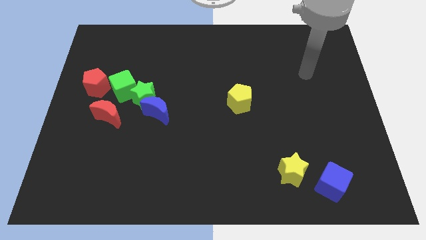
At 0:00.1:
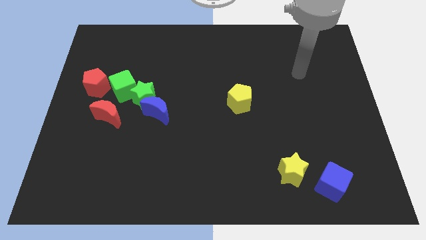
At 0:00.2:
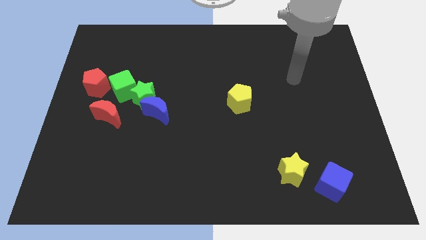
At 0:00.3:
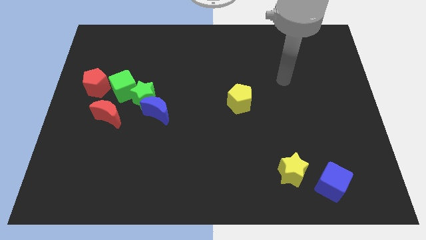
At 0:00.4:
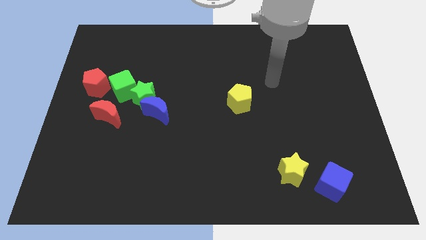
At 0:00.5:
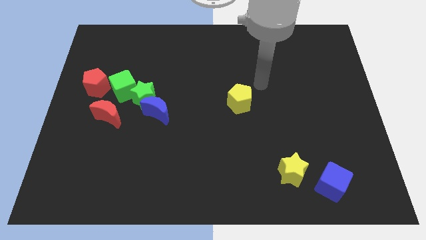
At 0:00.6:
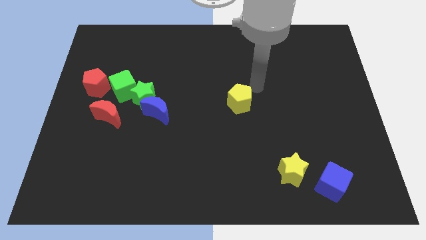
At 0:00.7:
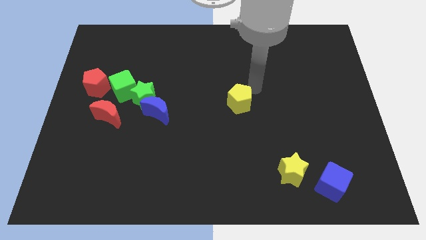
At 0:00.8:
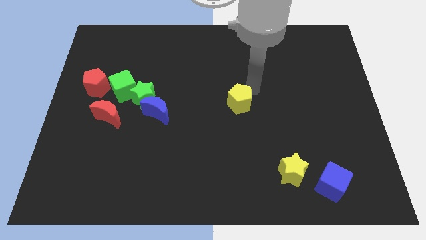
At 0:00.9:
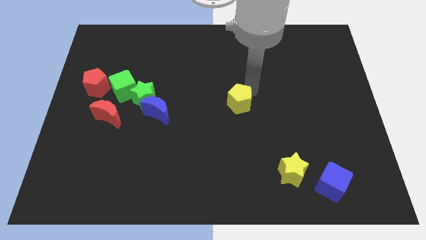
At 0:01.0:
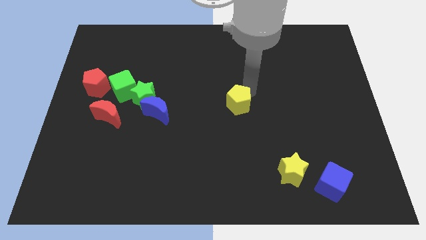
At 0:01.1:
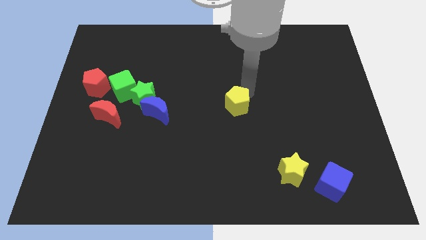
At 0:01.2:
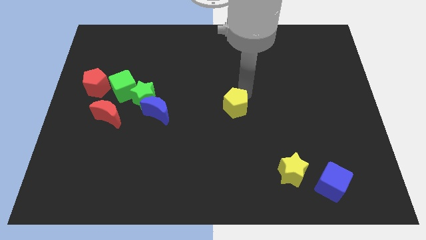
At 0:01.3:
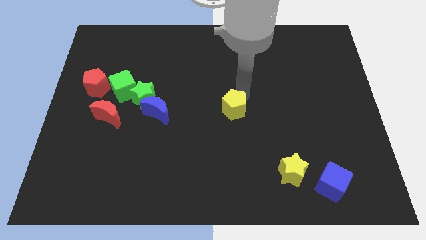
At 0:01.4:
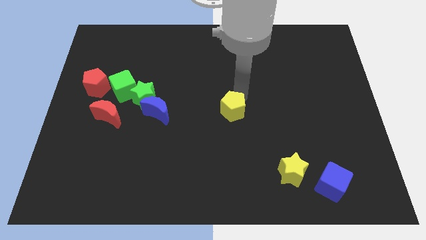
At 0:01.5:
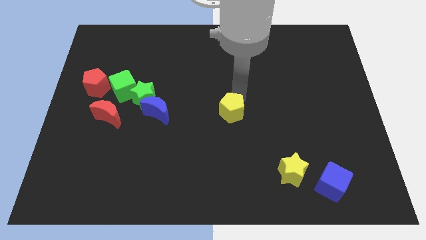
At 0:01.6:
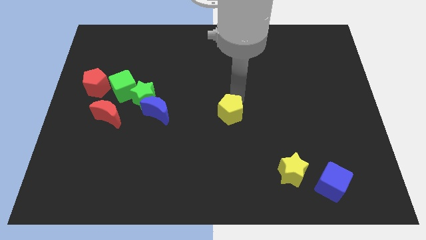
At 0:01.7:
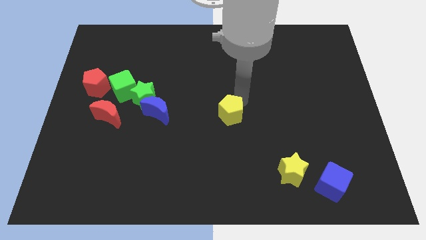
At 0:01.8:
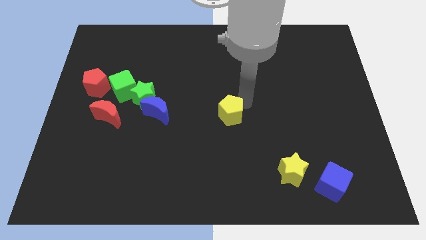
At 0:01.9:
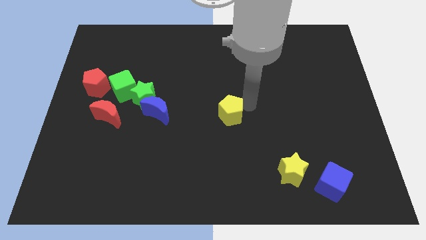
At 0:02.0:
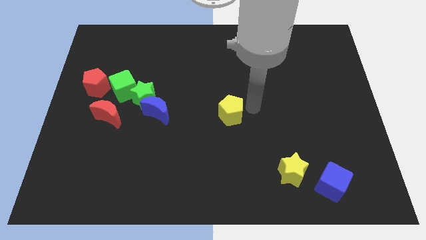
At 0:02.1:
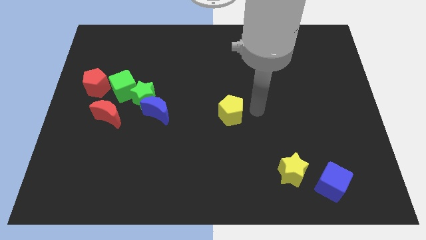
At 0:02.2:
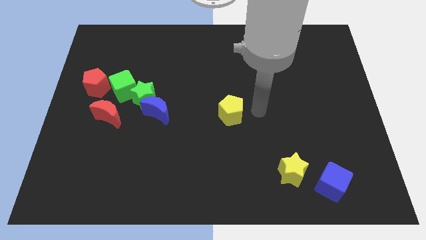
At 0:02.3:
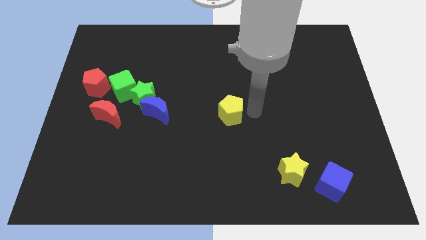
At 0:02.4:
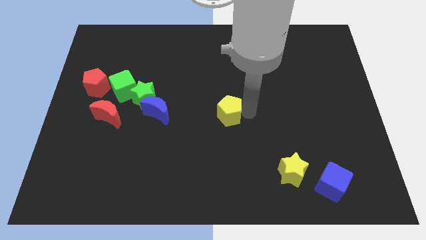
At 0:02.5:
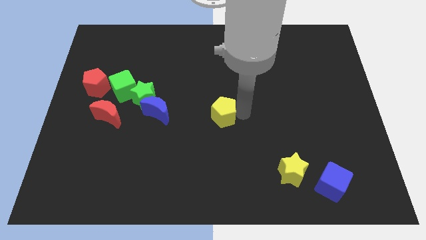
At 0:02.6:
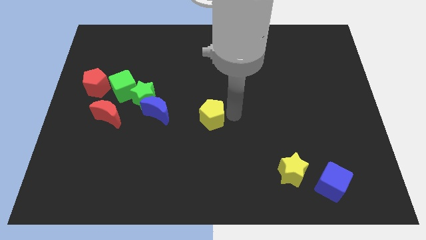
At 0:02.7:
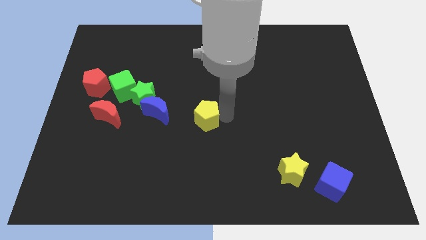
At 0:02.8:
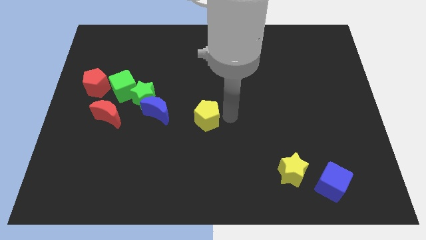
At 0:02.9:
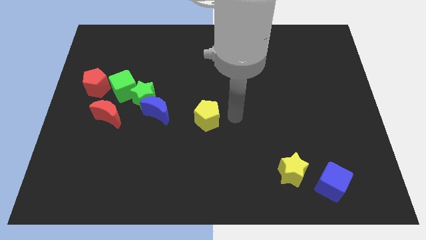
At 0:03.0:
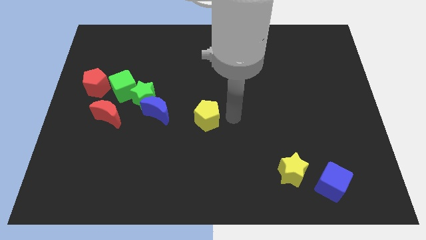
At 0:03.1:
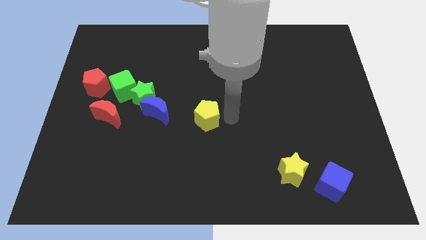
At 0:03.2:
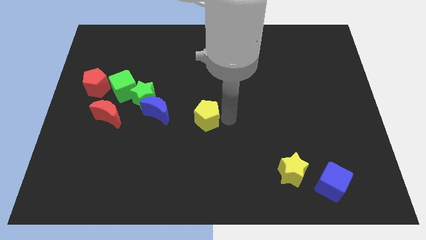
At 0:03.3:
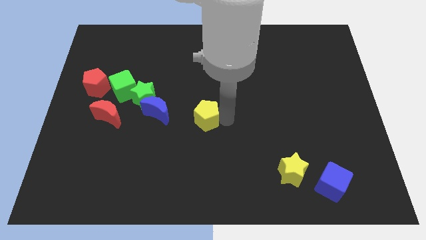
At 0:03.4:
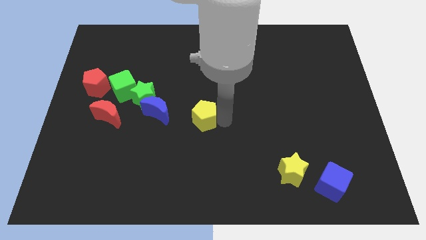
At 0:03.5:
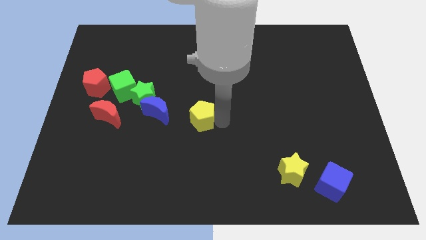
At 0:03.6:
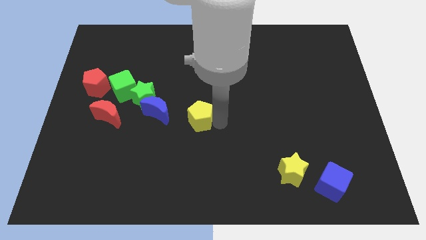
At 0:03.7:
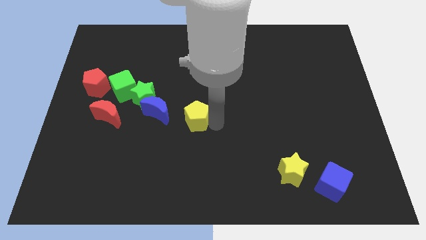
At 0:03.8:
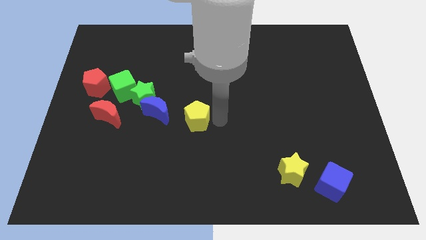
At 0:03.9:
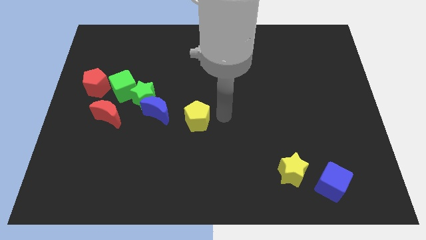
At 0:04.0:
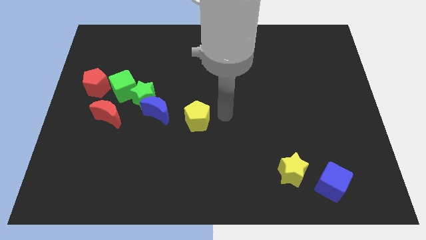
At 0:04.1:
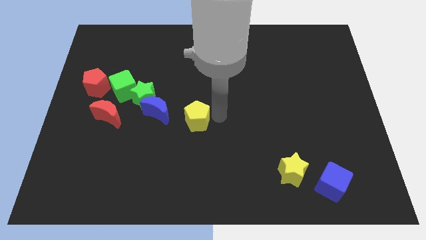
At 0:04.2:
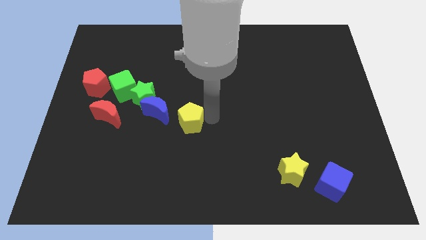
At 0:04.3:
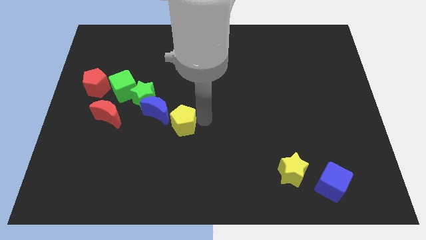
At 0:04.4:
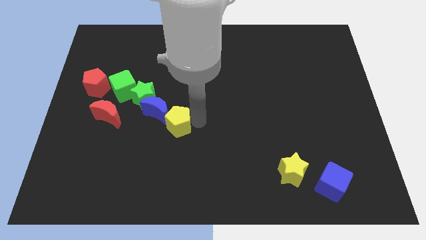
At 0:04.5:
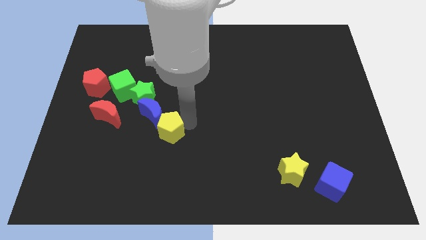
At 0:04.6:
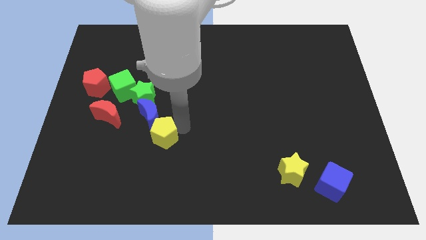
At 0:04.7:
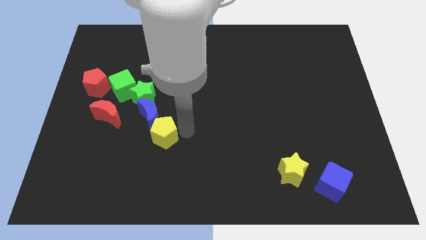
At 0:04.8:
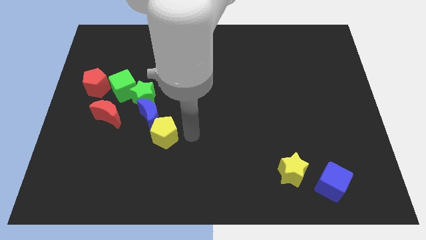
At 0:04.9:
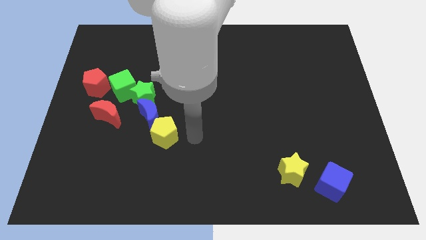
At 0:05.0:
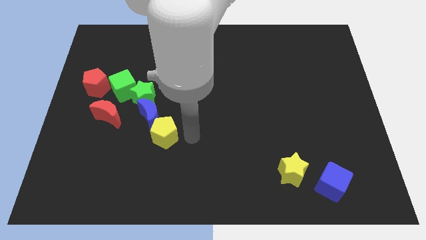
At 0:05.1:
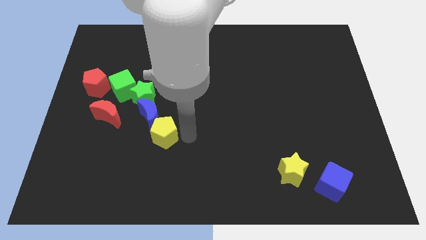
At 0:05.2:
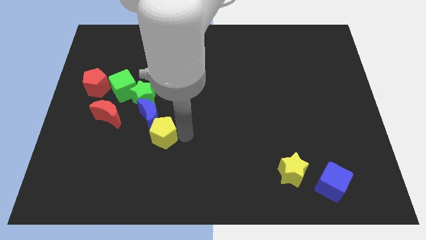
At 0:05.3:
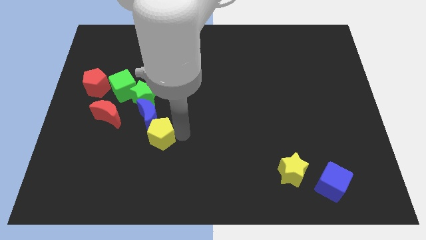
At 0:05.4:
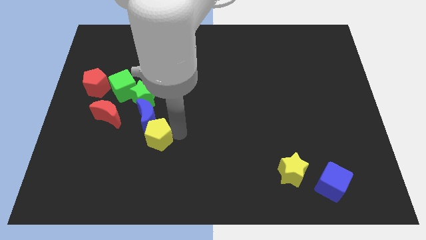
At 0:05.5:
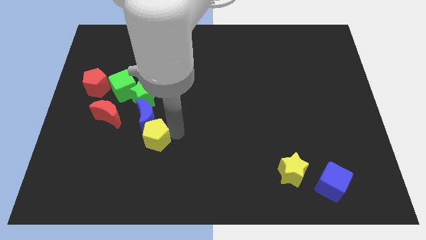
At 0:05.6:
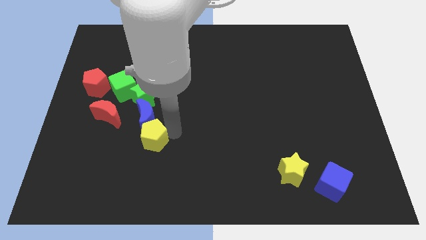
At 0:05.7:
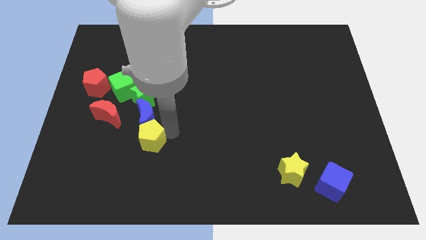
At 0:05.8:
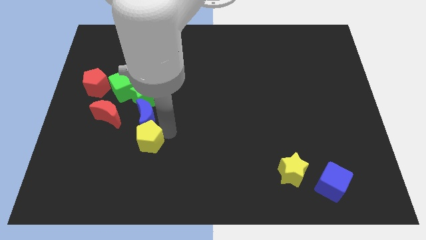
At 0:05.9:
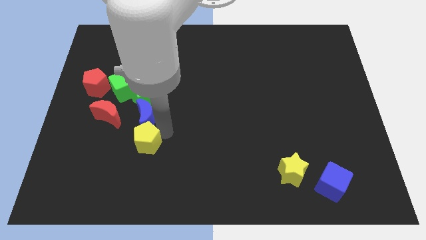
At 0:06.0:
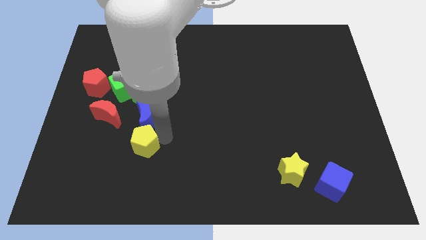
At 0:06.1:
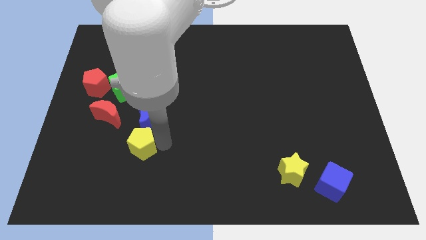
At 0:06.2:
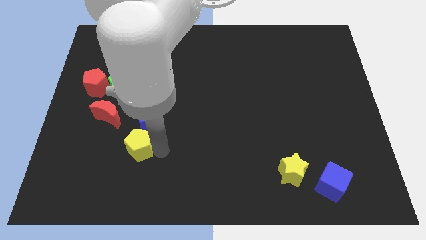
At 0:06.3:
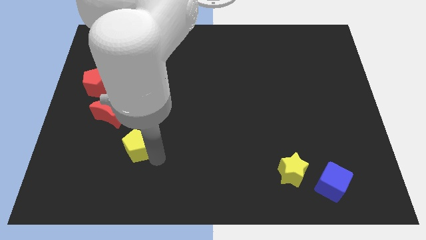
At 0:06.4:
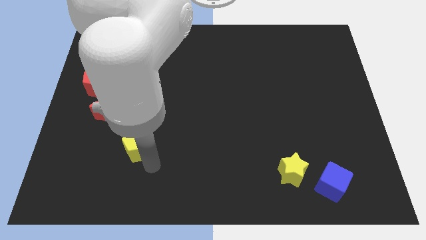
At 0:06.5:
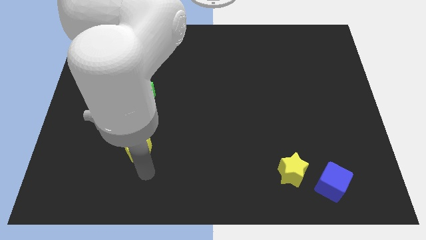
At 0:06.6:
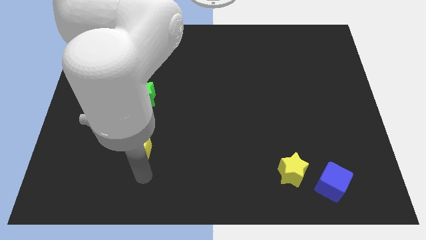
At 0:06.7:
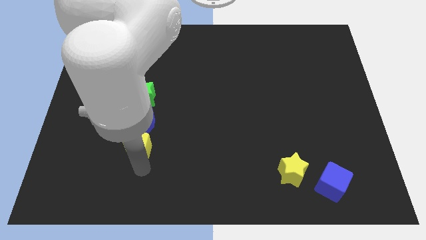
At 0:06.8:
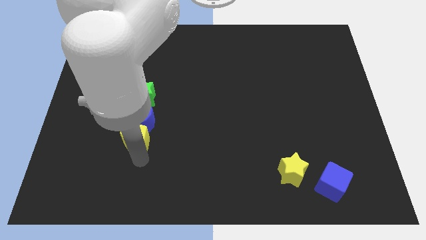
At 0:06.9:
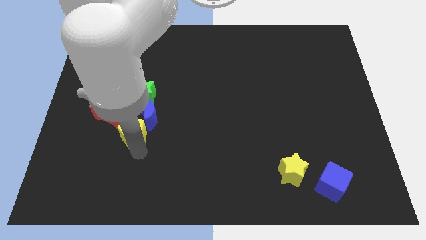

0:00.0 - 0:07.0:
push the yellow pentagon left

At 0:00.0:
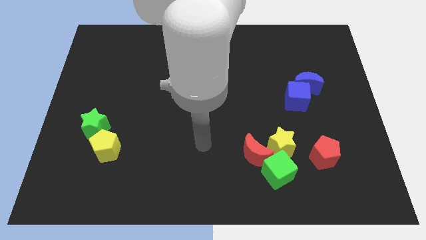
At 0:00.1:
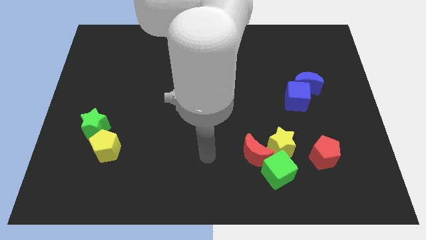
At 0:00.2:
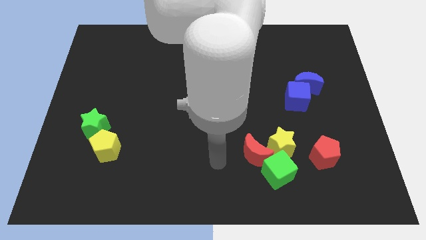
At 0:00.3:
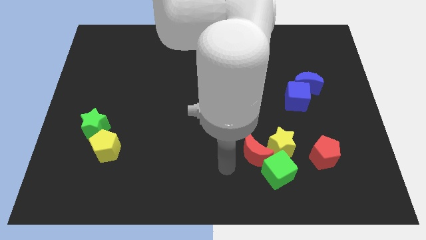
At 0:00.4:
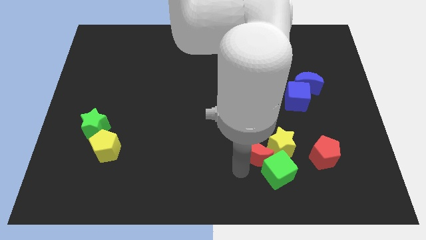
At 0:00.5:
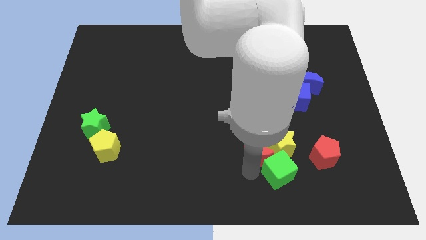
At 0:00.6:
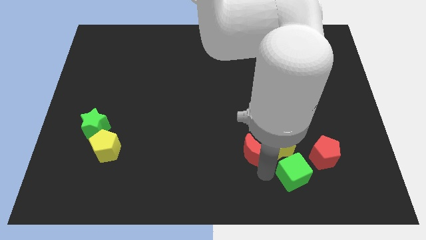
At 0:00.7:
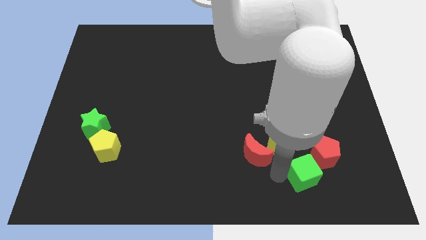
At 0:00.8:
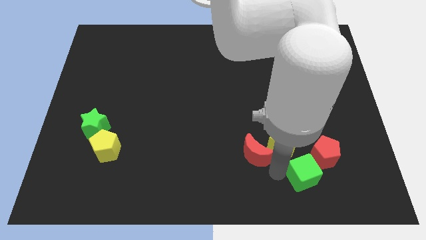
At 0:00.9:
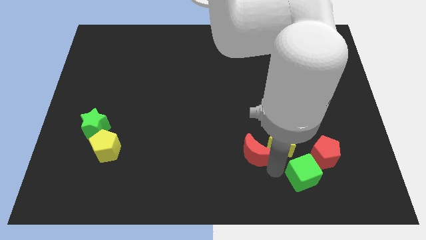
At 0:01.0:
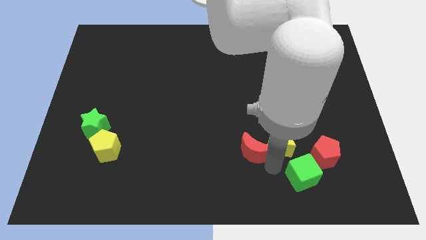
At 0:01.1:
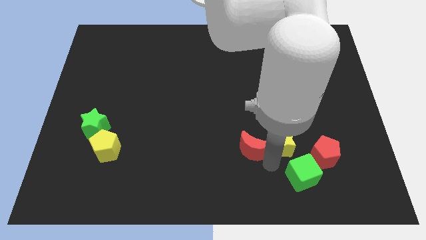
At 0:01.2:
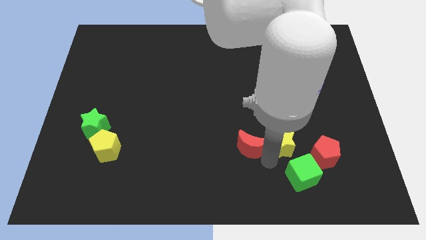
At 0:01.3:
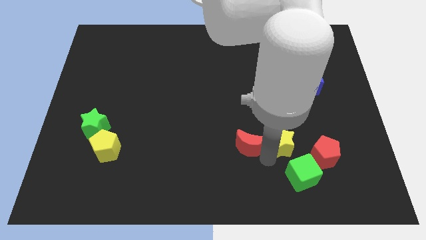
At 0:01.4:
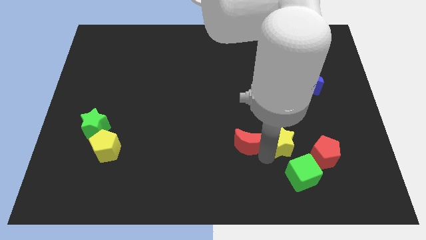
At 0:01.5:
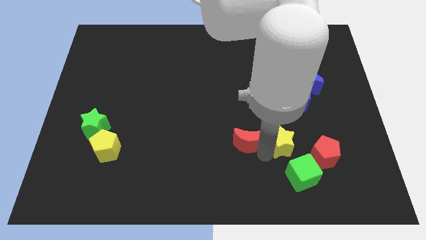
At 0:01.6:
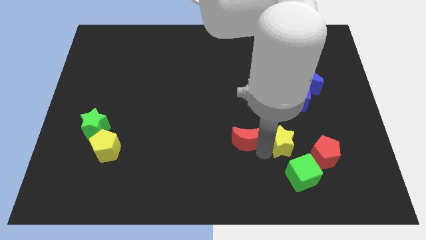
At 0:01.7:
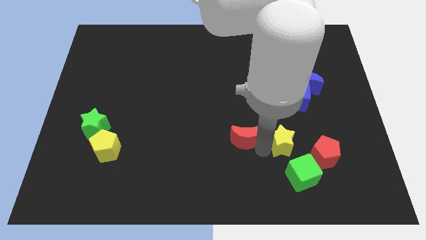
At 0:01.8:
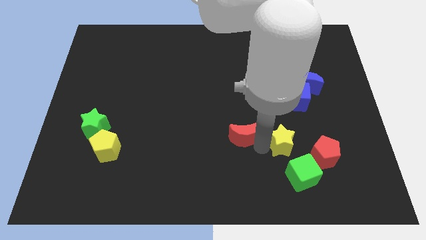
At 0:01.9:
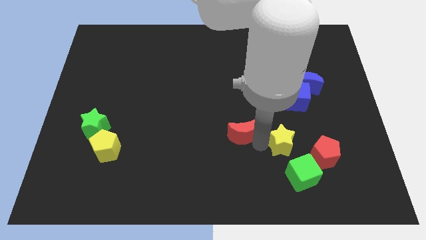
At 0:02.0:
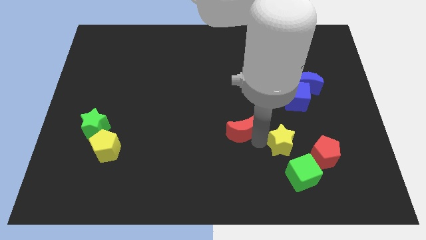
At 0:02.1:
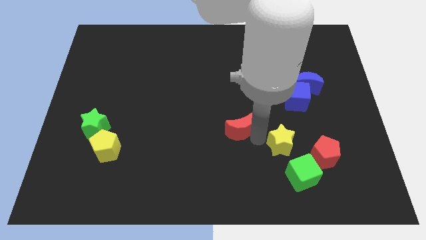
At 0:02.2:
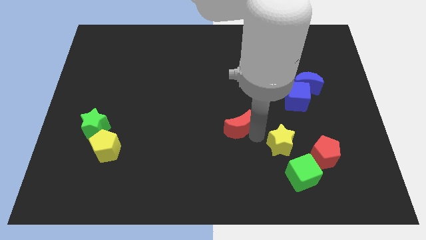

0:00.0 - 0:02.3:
slide the red moon diagonally up and to the left a little
